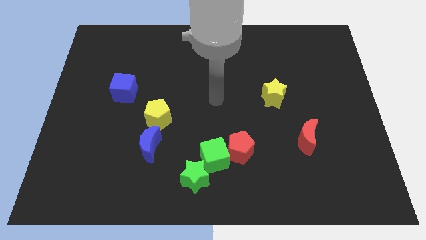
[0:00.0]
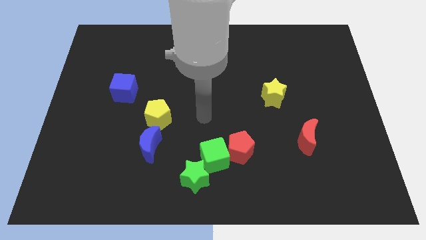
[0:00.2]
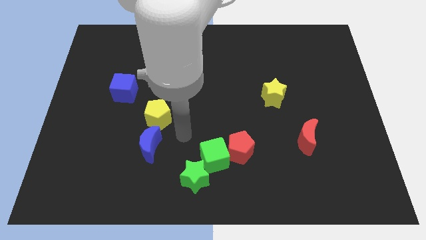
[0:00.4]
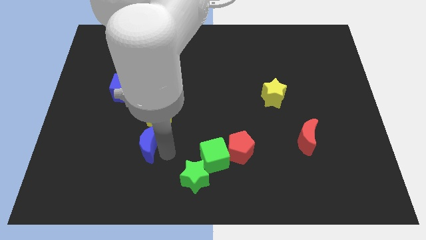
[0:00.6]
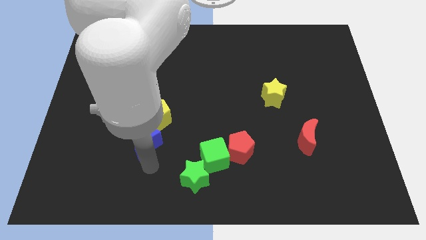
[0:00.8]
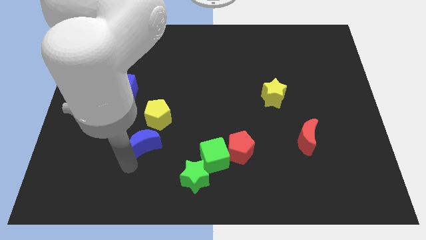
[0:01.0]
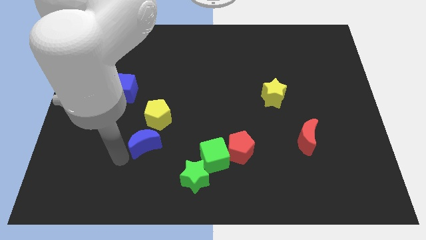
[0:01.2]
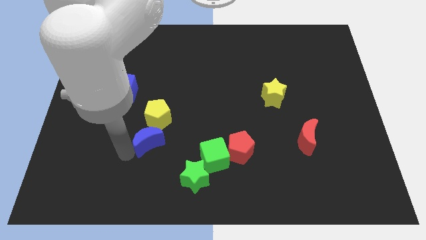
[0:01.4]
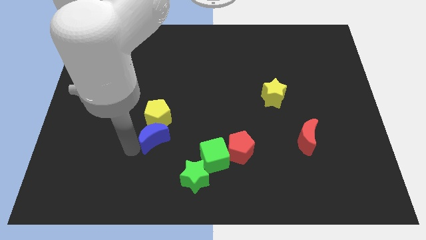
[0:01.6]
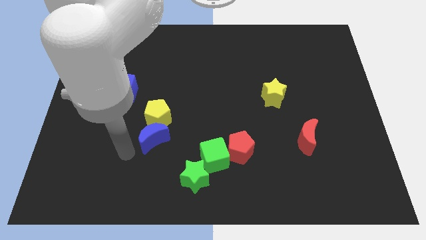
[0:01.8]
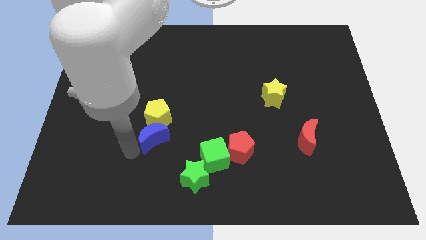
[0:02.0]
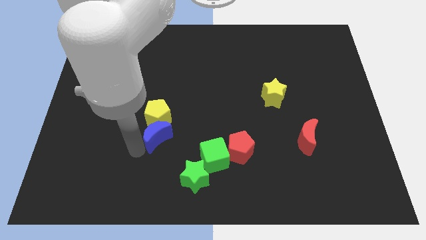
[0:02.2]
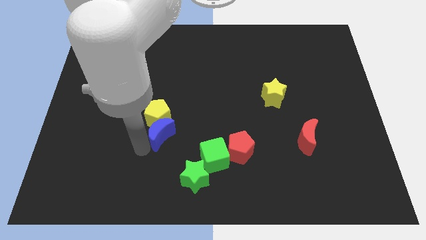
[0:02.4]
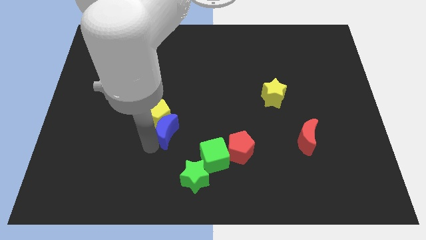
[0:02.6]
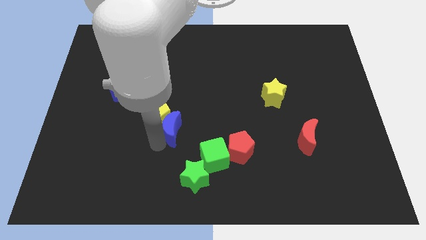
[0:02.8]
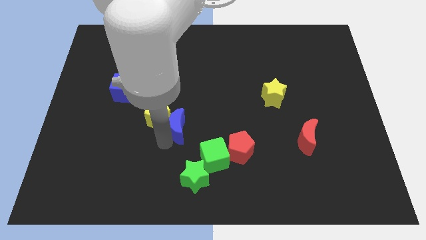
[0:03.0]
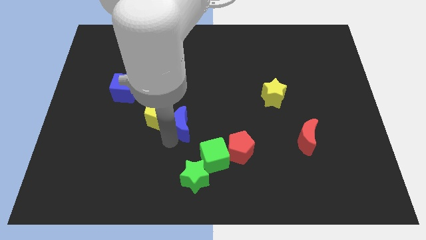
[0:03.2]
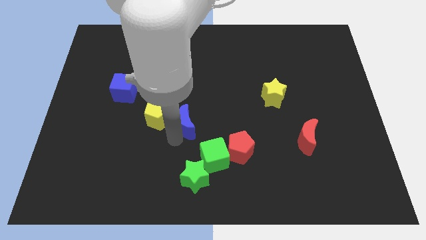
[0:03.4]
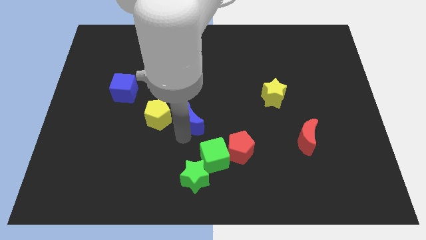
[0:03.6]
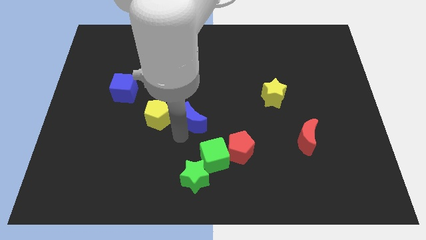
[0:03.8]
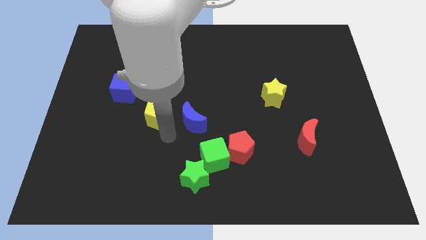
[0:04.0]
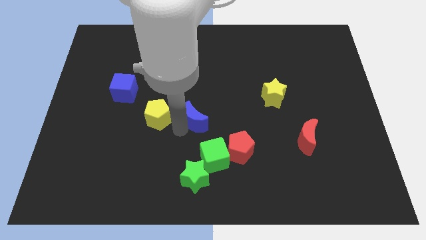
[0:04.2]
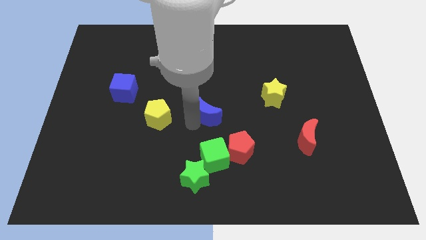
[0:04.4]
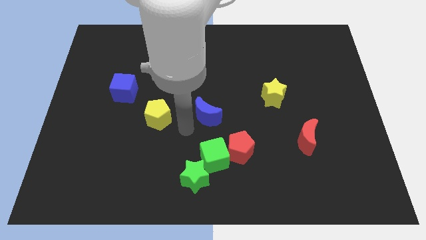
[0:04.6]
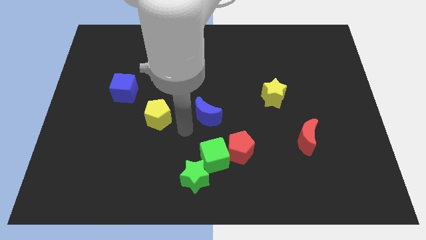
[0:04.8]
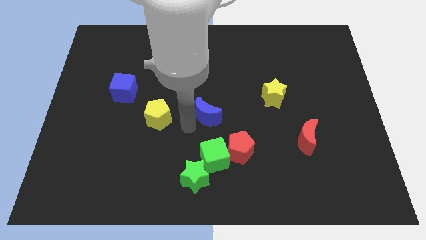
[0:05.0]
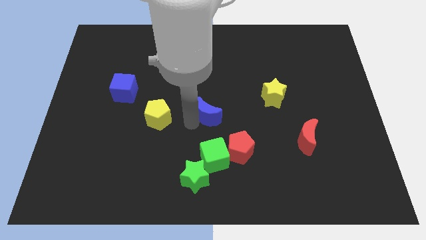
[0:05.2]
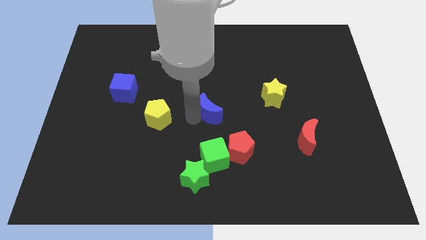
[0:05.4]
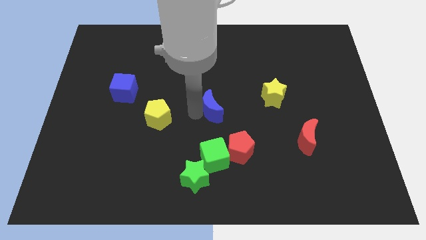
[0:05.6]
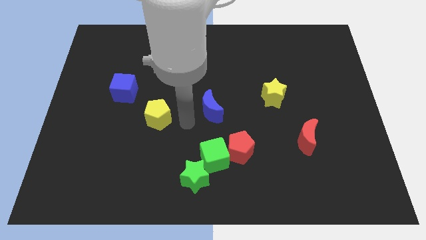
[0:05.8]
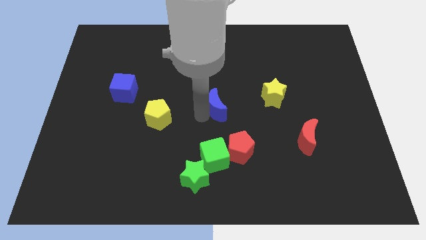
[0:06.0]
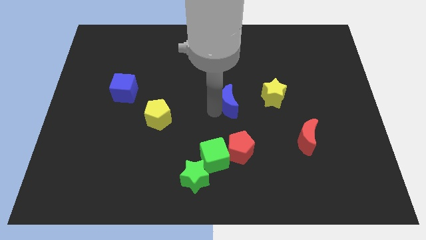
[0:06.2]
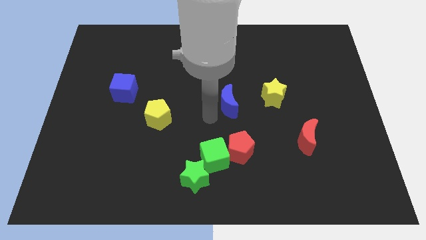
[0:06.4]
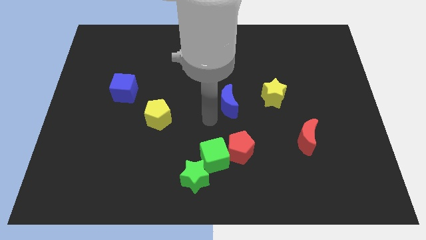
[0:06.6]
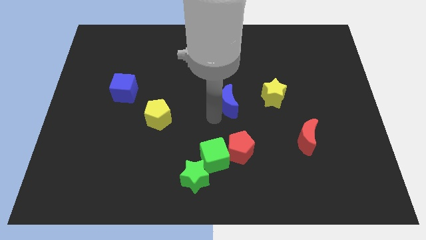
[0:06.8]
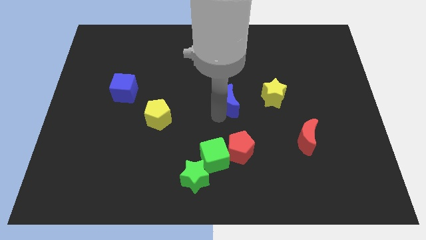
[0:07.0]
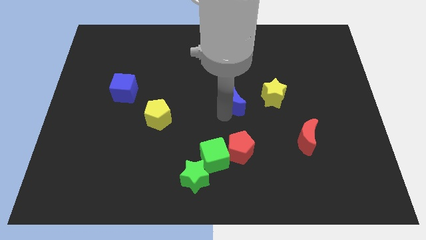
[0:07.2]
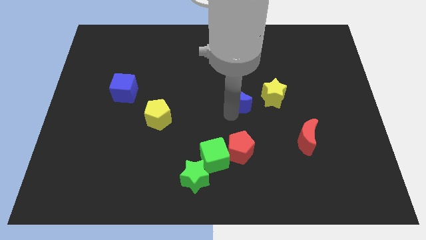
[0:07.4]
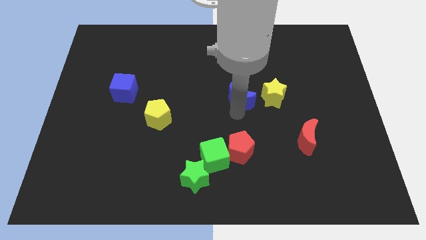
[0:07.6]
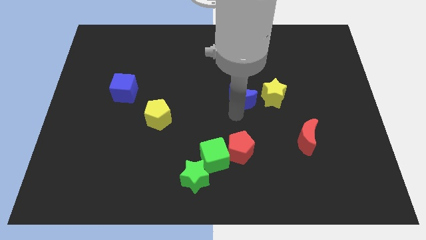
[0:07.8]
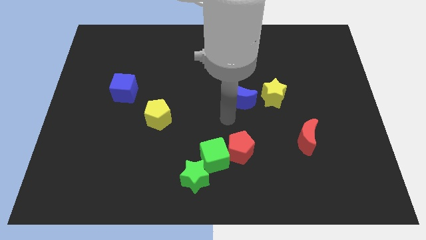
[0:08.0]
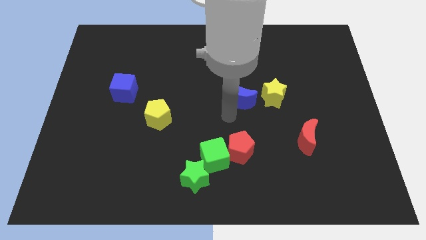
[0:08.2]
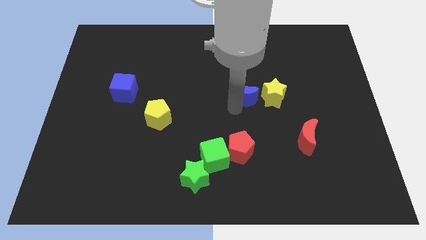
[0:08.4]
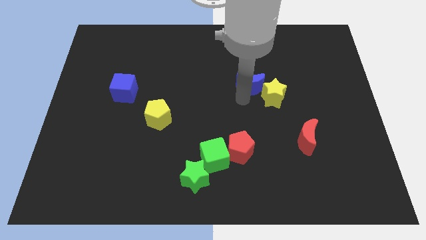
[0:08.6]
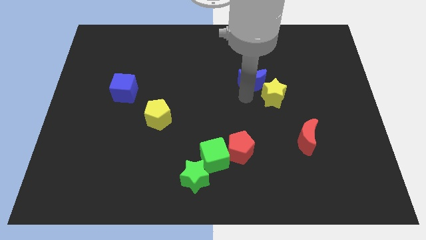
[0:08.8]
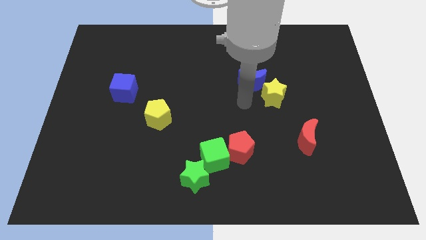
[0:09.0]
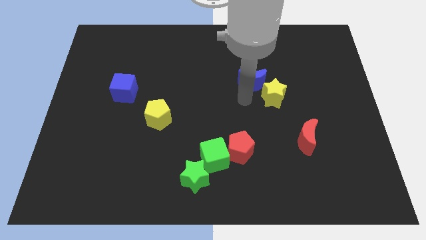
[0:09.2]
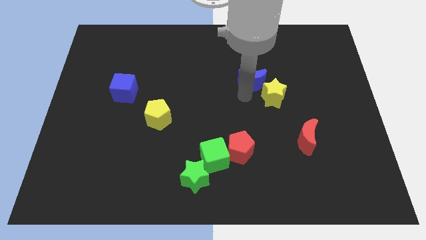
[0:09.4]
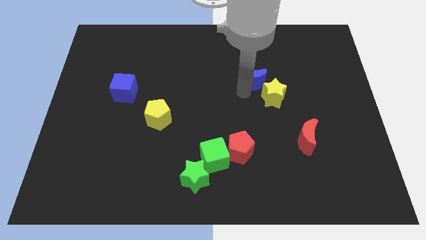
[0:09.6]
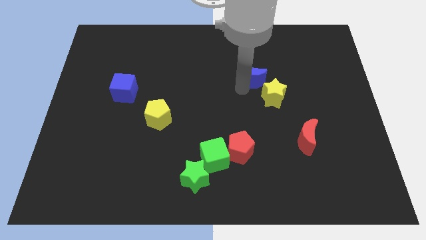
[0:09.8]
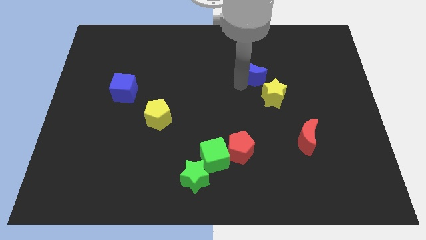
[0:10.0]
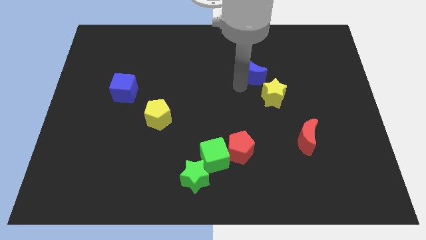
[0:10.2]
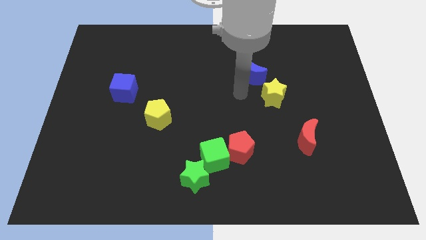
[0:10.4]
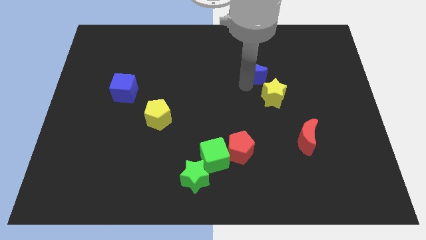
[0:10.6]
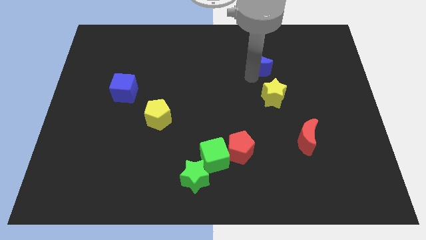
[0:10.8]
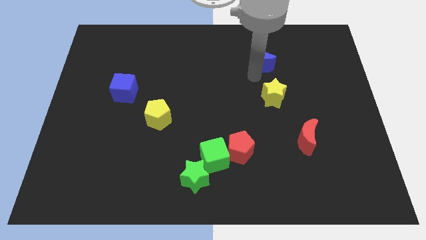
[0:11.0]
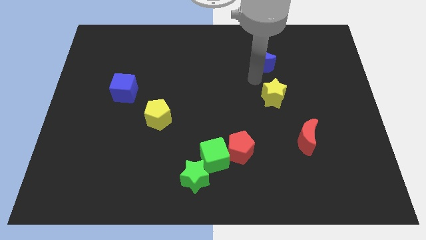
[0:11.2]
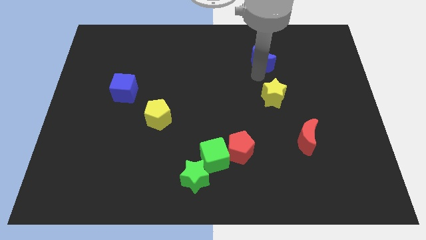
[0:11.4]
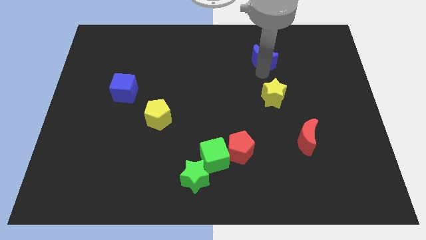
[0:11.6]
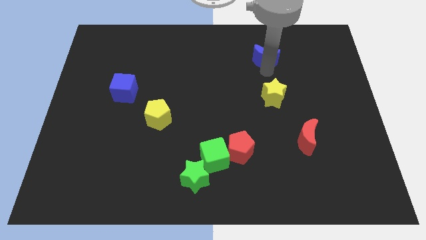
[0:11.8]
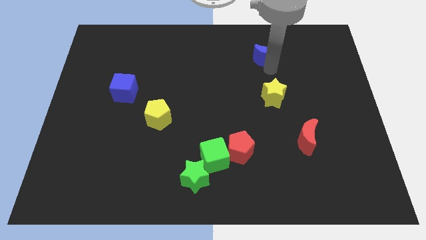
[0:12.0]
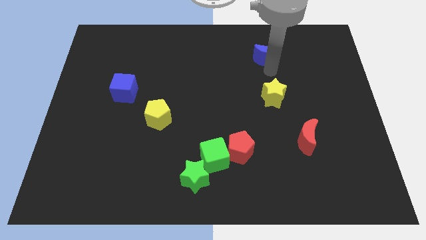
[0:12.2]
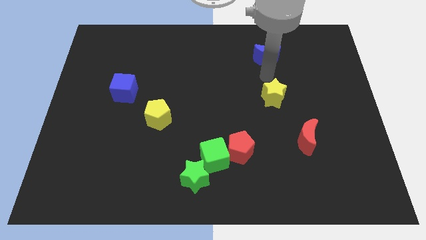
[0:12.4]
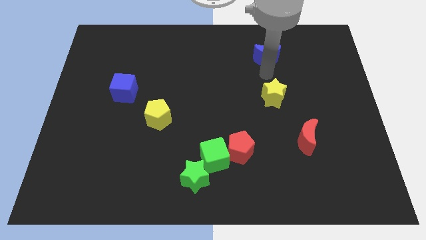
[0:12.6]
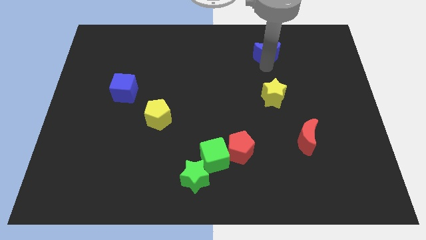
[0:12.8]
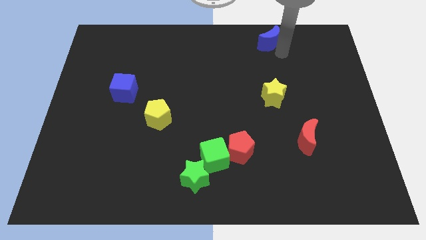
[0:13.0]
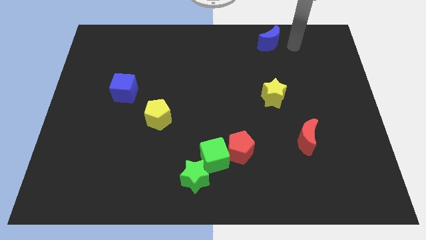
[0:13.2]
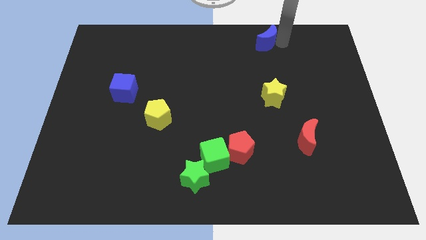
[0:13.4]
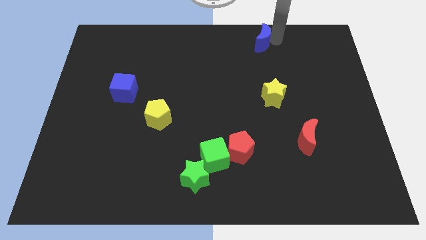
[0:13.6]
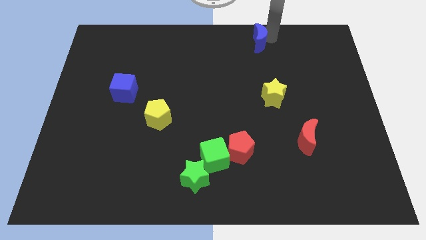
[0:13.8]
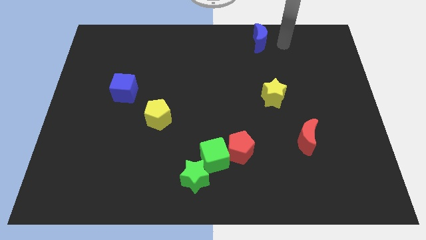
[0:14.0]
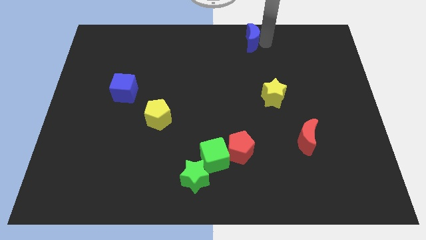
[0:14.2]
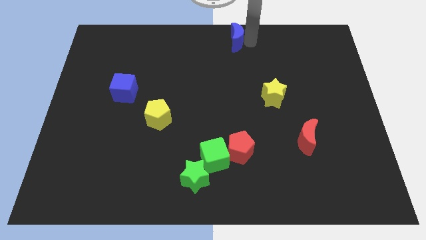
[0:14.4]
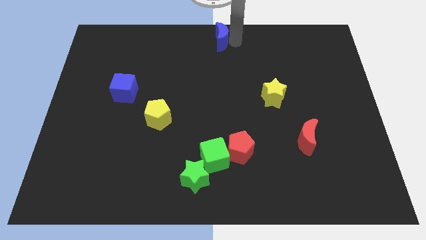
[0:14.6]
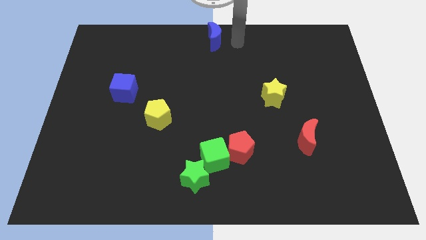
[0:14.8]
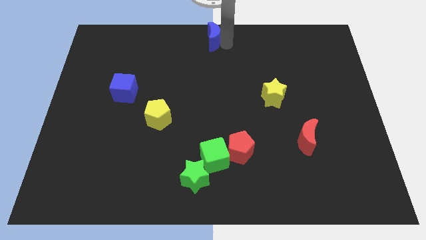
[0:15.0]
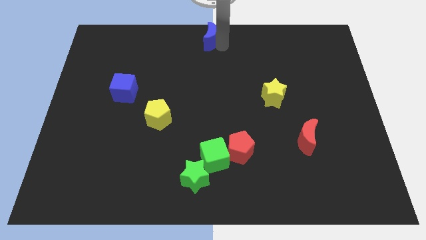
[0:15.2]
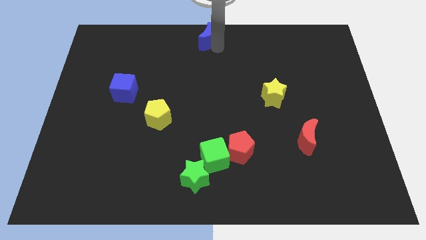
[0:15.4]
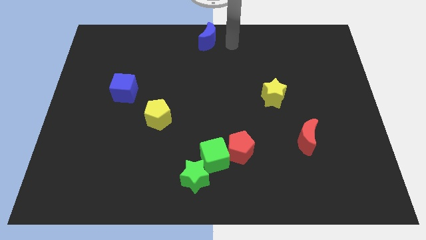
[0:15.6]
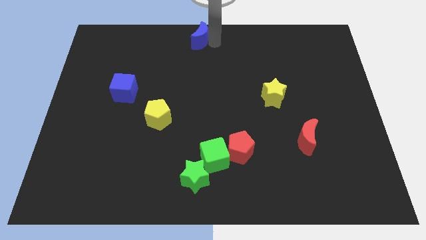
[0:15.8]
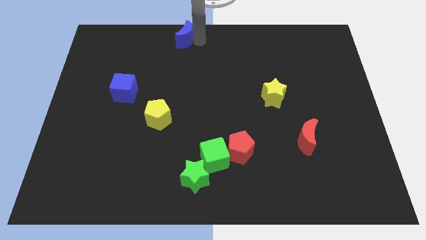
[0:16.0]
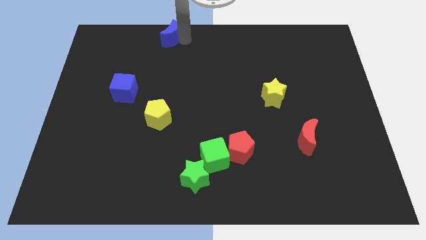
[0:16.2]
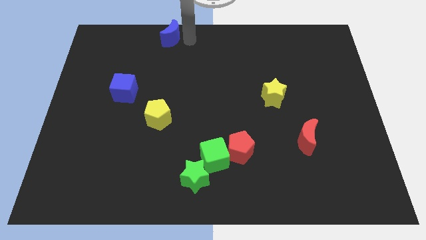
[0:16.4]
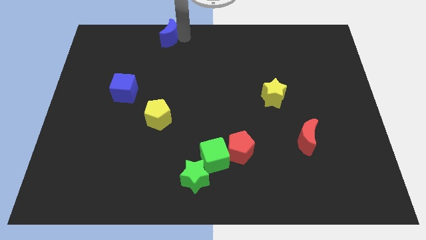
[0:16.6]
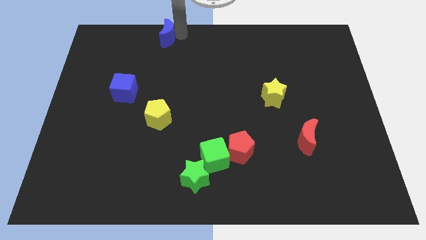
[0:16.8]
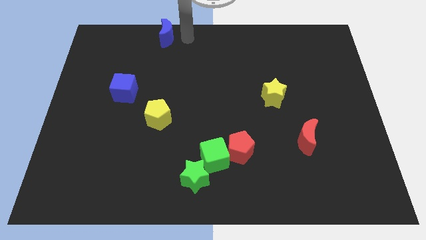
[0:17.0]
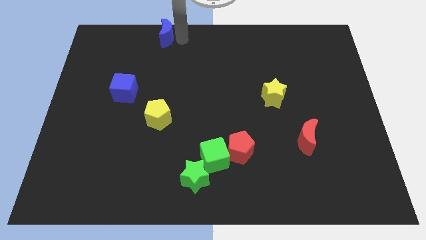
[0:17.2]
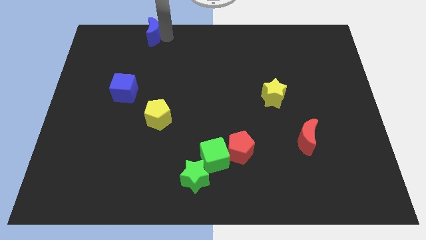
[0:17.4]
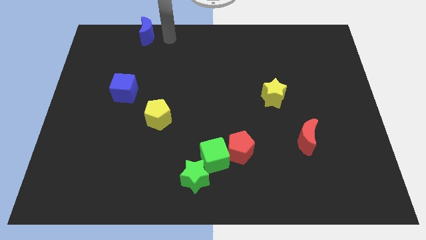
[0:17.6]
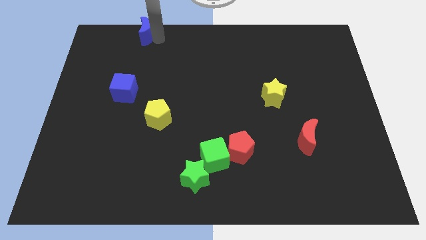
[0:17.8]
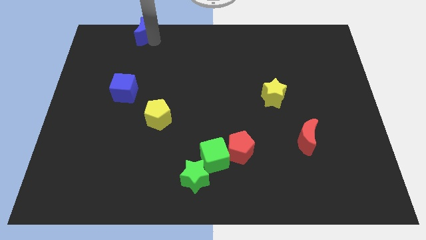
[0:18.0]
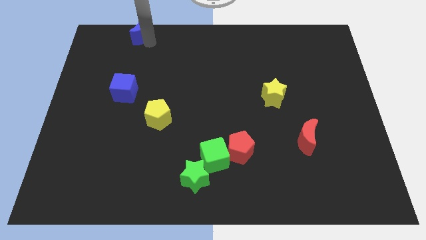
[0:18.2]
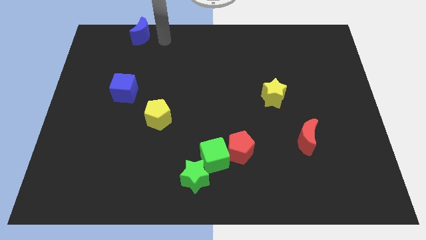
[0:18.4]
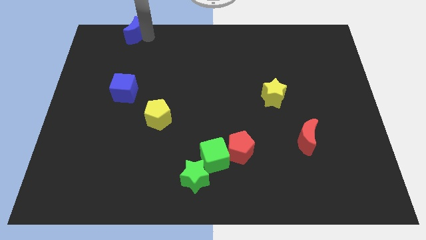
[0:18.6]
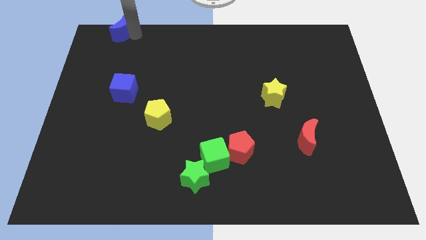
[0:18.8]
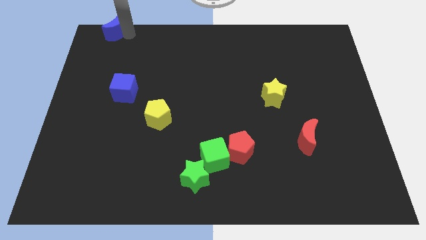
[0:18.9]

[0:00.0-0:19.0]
move the blue moon to the top left of the board
